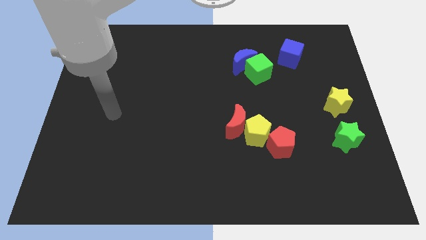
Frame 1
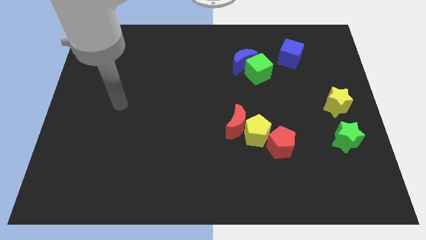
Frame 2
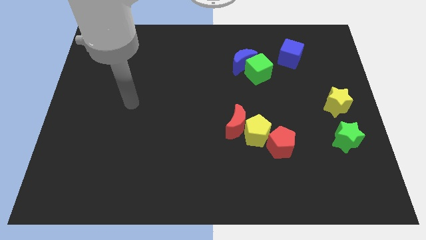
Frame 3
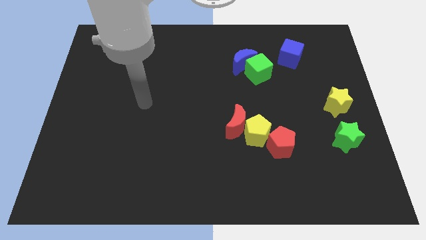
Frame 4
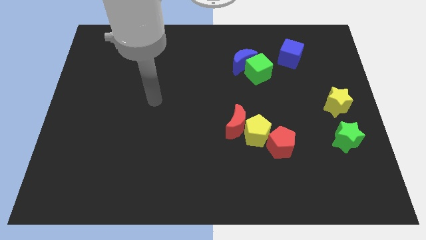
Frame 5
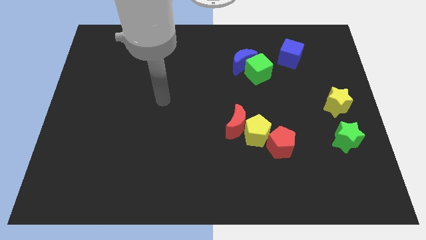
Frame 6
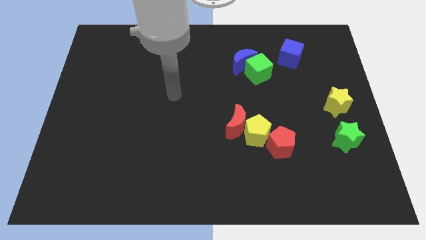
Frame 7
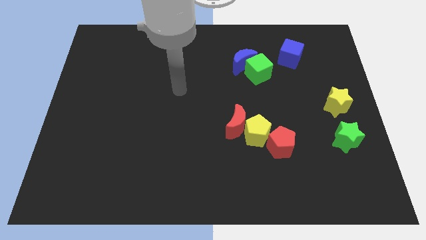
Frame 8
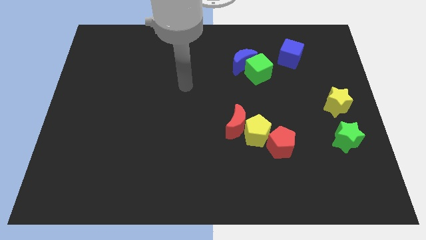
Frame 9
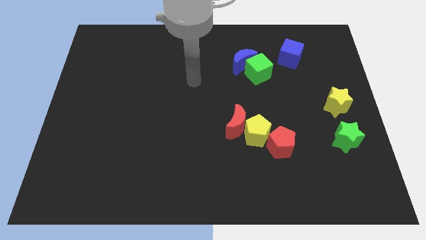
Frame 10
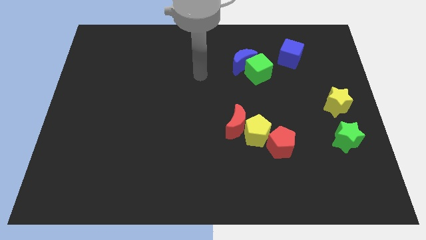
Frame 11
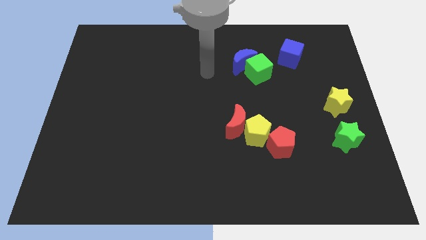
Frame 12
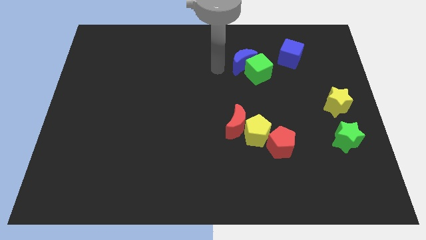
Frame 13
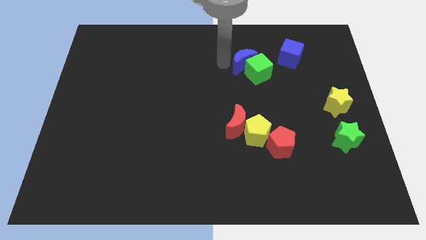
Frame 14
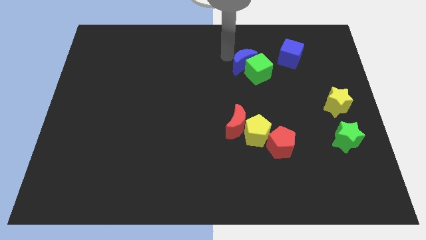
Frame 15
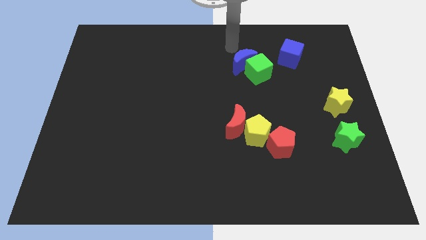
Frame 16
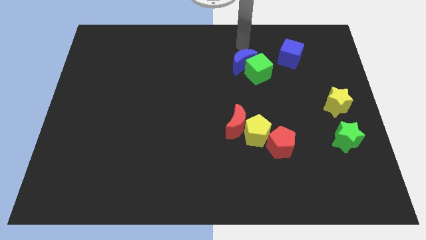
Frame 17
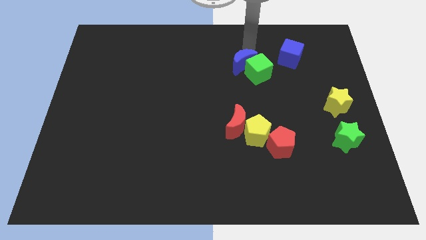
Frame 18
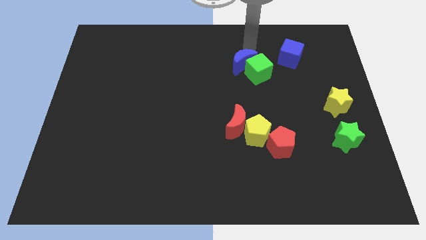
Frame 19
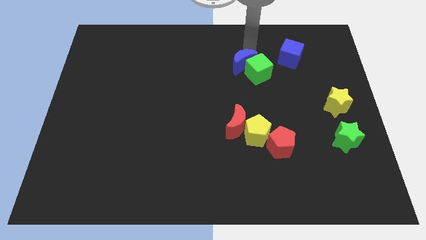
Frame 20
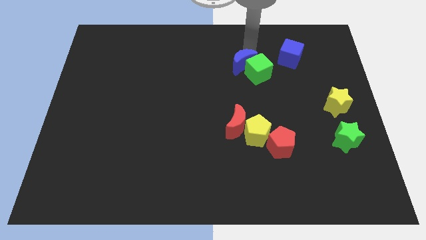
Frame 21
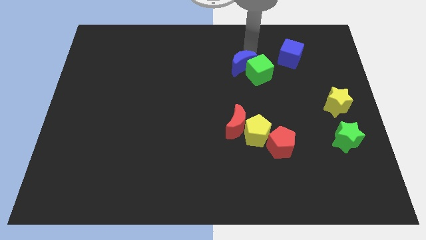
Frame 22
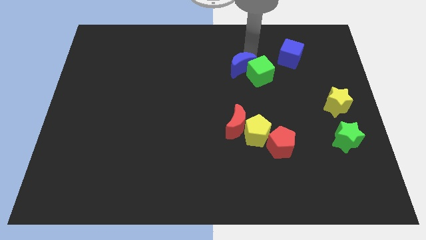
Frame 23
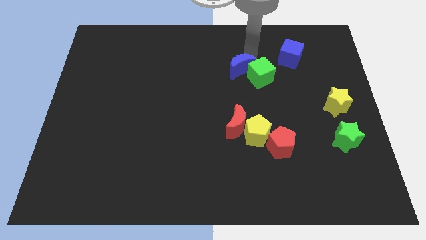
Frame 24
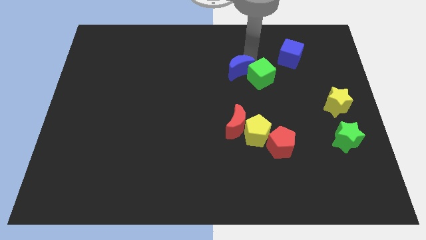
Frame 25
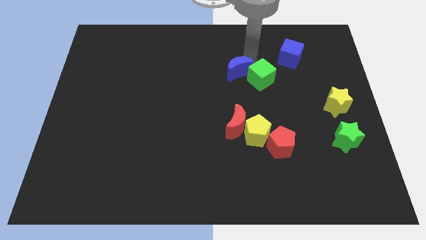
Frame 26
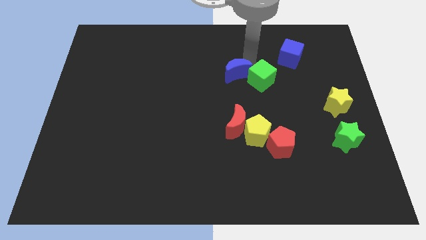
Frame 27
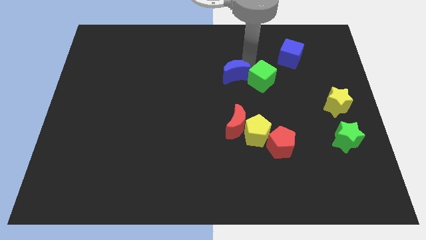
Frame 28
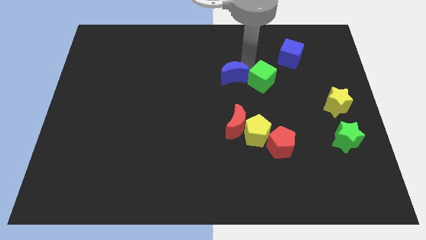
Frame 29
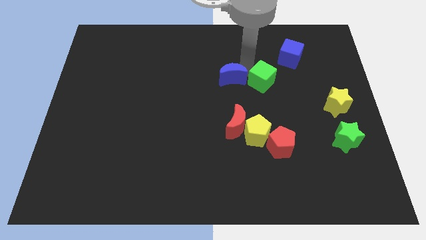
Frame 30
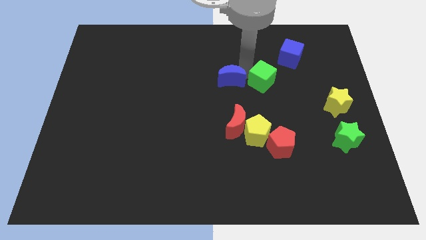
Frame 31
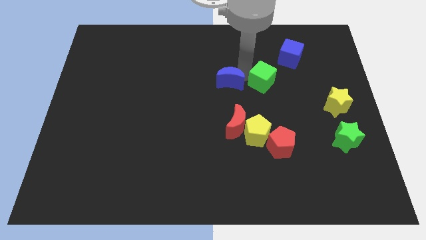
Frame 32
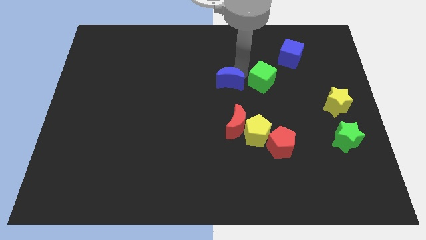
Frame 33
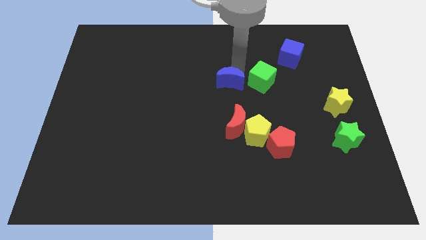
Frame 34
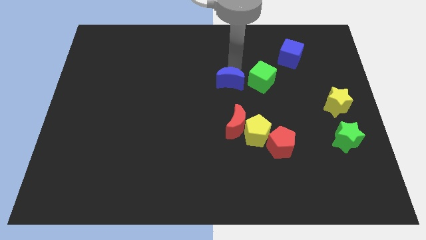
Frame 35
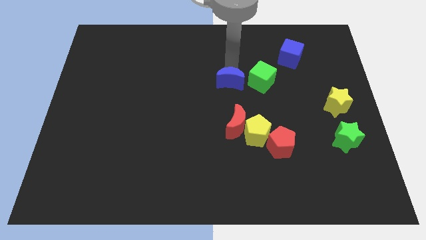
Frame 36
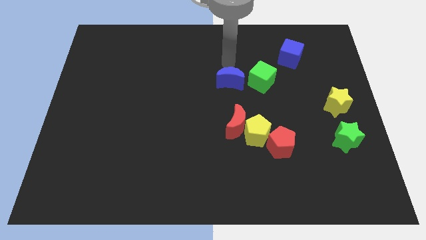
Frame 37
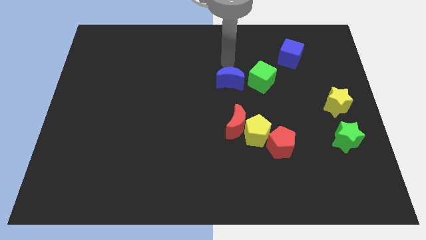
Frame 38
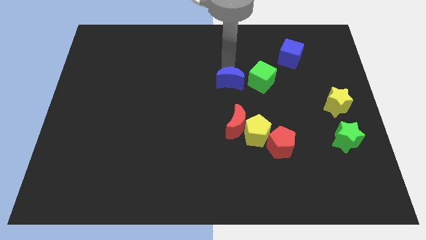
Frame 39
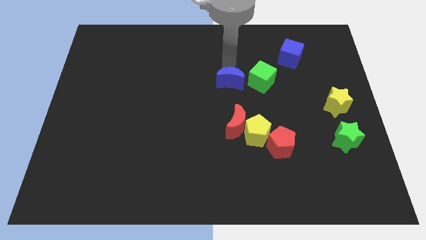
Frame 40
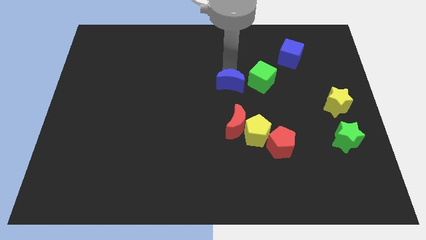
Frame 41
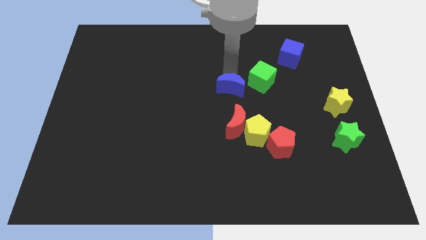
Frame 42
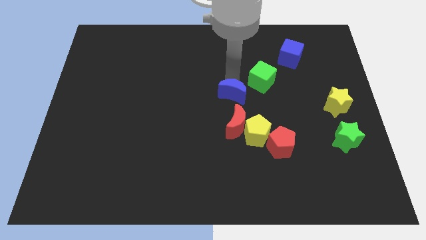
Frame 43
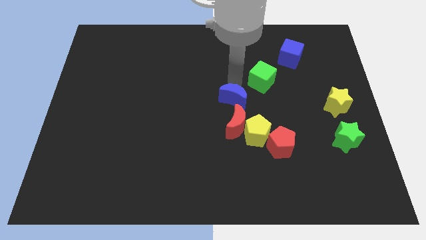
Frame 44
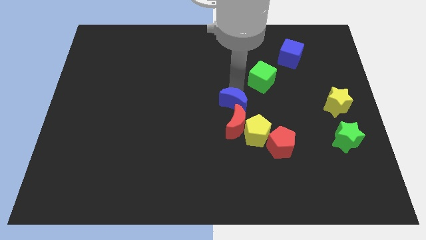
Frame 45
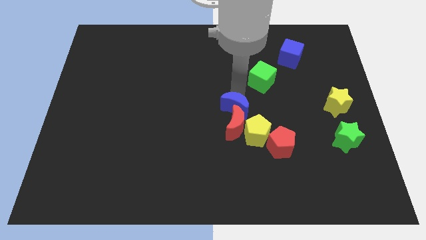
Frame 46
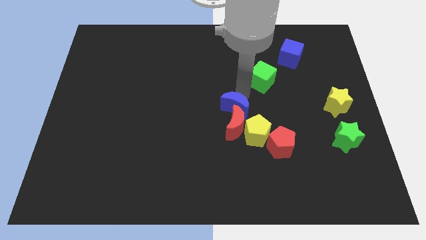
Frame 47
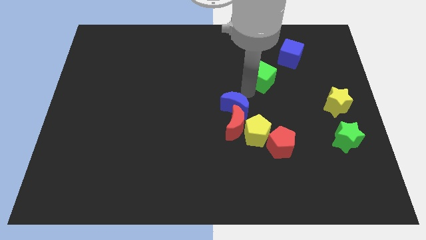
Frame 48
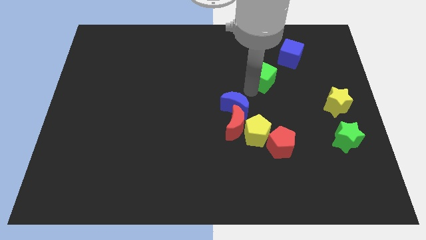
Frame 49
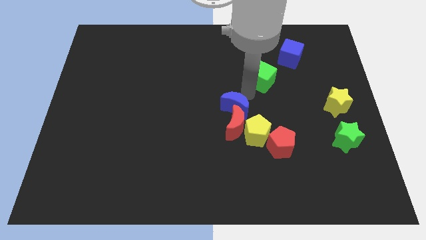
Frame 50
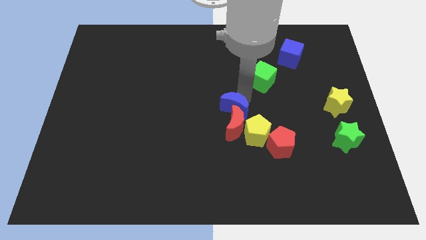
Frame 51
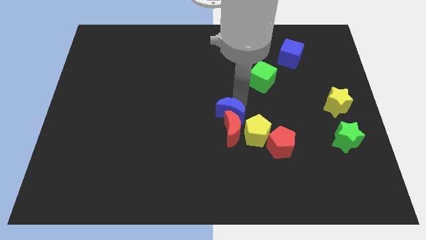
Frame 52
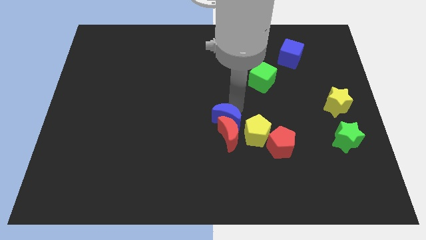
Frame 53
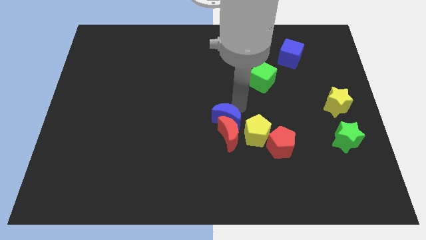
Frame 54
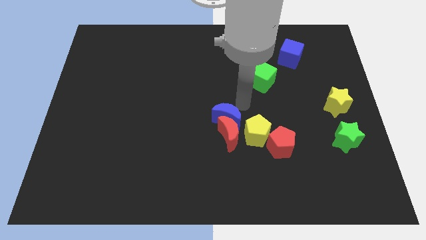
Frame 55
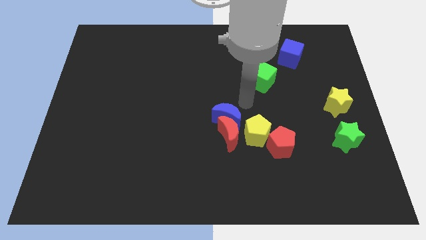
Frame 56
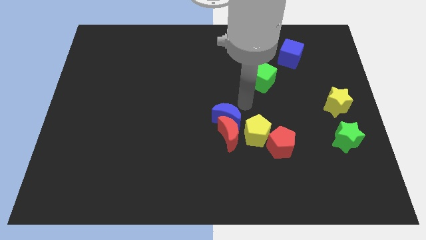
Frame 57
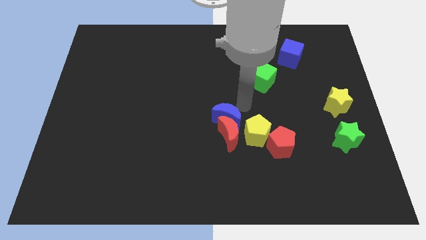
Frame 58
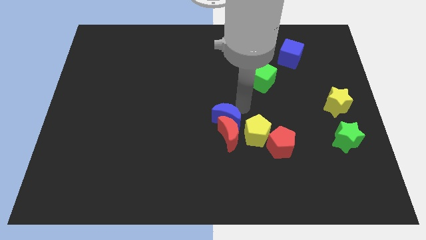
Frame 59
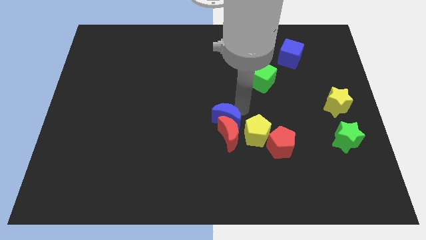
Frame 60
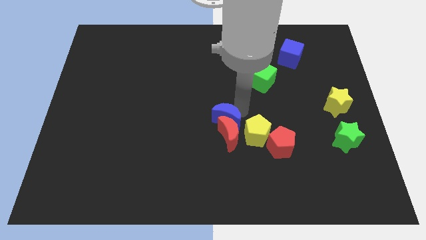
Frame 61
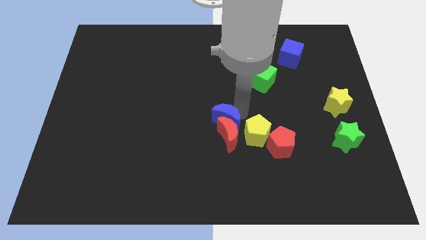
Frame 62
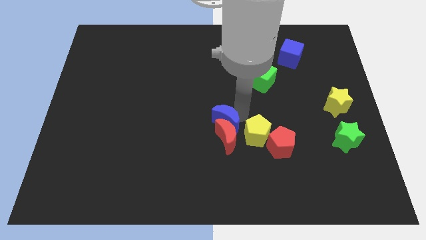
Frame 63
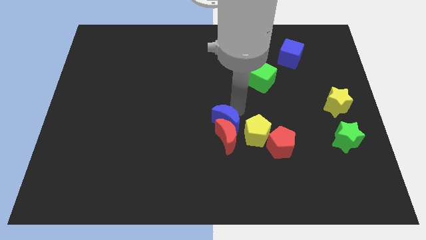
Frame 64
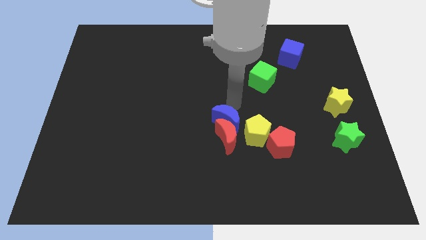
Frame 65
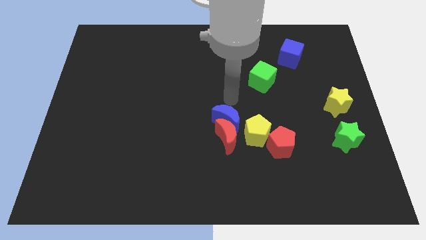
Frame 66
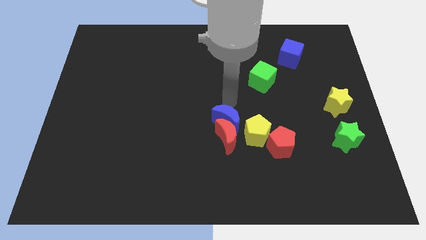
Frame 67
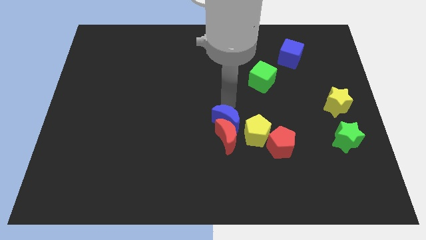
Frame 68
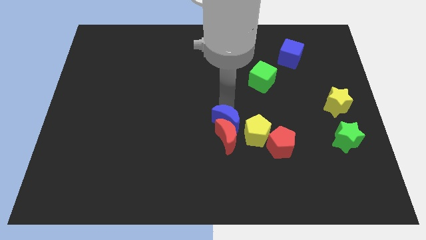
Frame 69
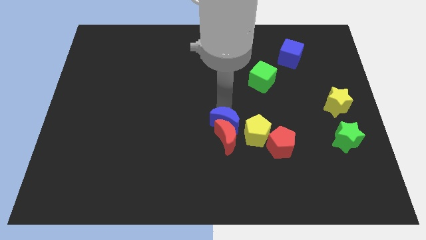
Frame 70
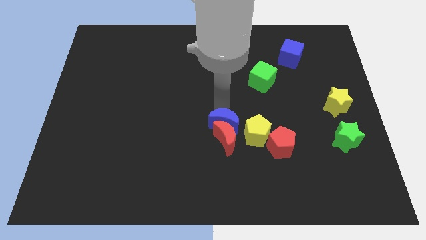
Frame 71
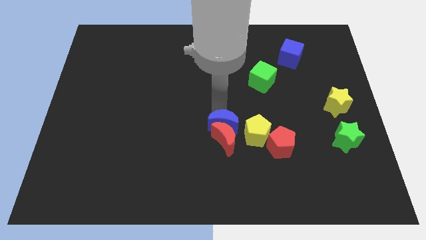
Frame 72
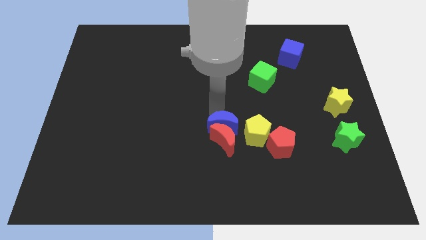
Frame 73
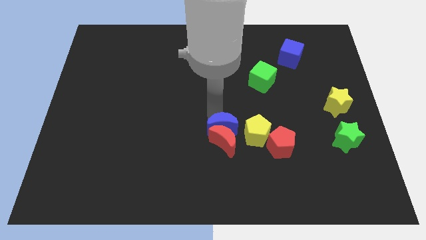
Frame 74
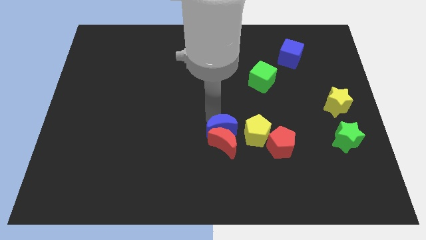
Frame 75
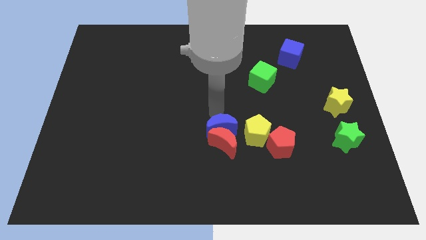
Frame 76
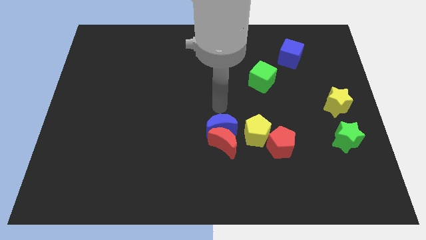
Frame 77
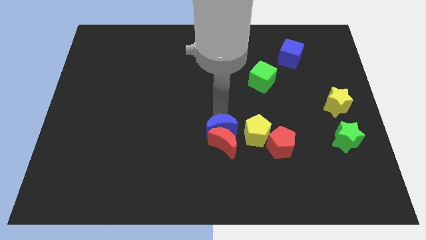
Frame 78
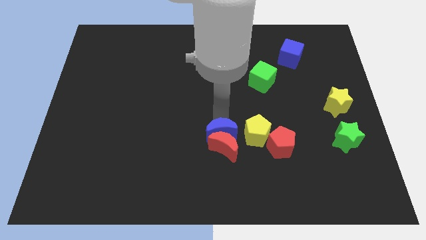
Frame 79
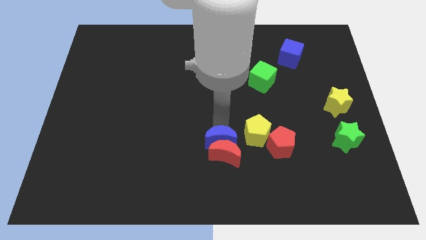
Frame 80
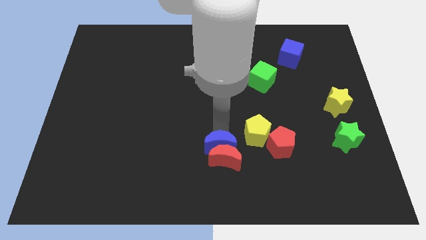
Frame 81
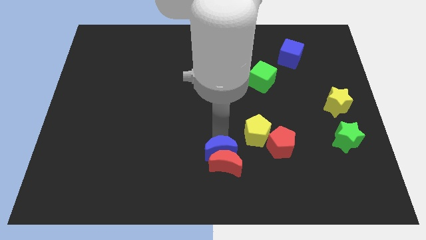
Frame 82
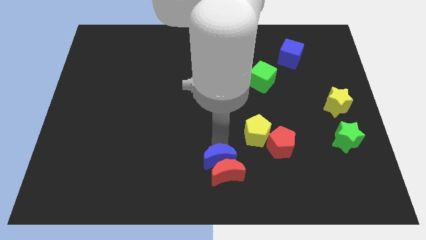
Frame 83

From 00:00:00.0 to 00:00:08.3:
move the blue moon to the bottom
